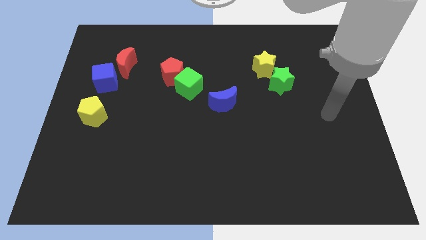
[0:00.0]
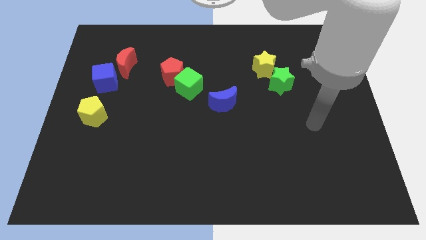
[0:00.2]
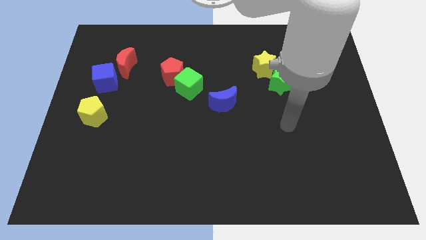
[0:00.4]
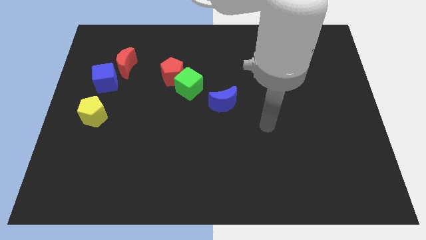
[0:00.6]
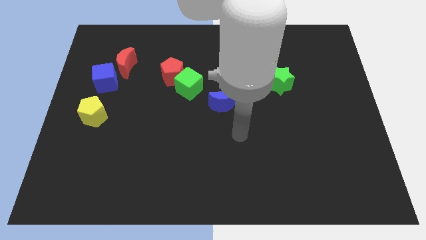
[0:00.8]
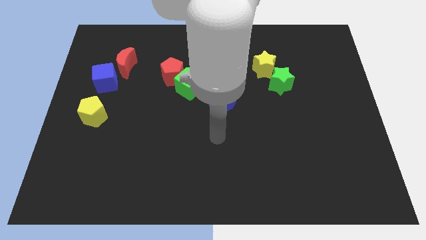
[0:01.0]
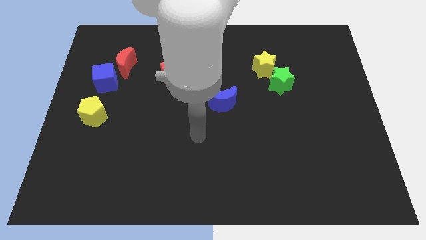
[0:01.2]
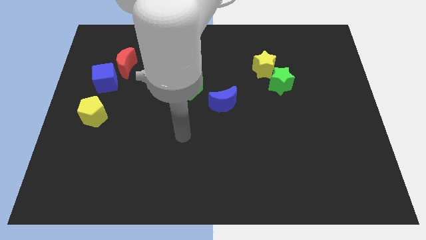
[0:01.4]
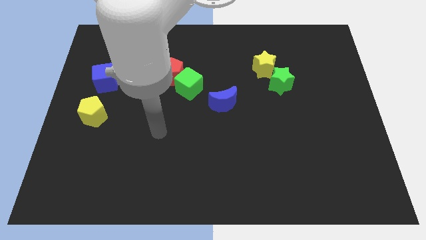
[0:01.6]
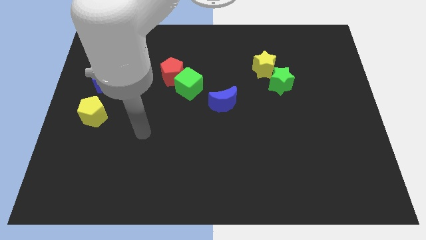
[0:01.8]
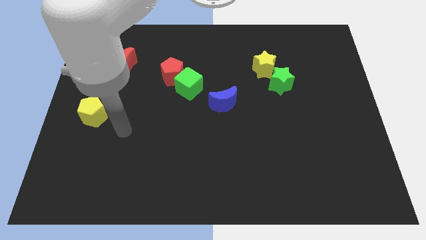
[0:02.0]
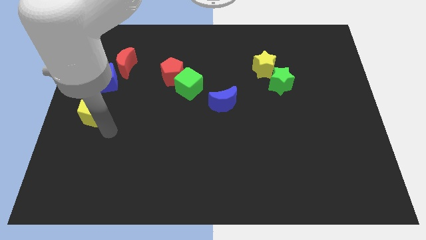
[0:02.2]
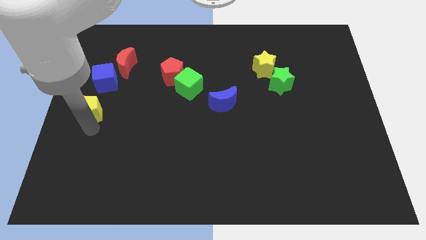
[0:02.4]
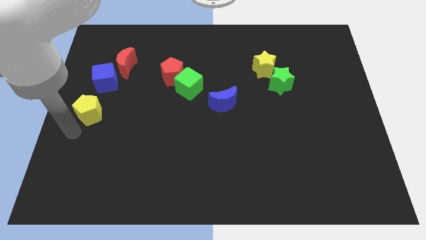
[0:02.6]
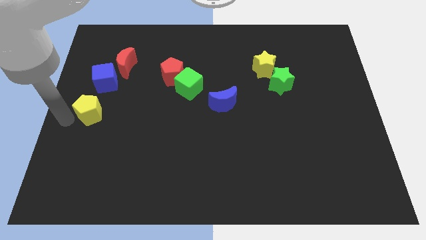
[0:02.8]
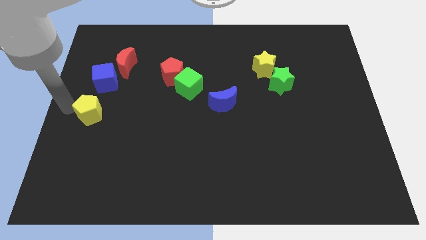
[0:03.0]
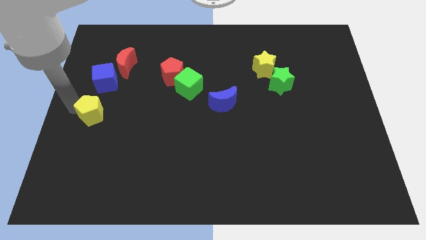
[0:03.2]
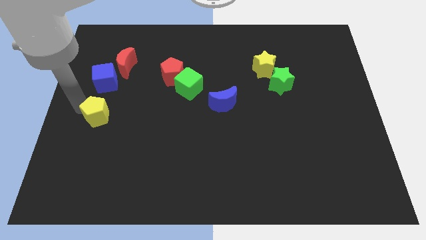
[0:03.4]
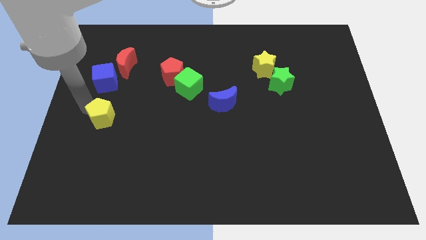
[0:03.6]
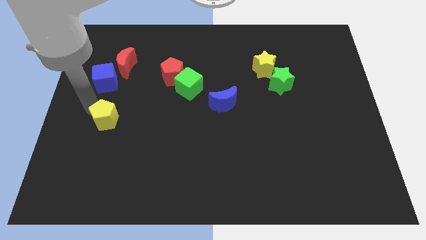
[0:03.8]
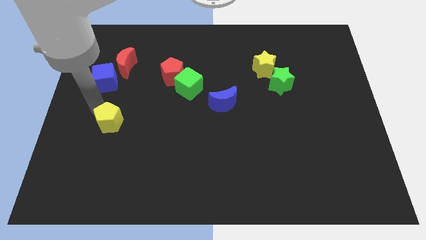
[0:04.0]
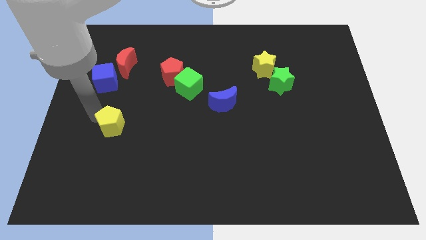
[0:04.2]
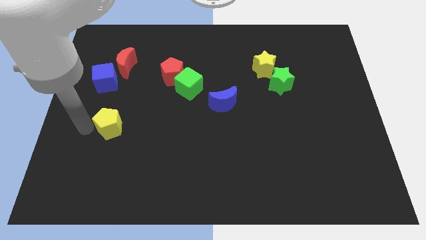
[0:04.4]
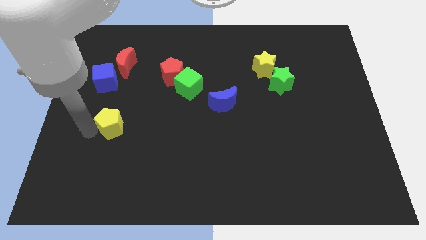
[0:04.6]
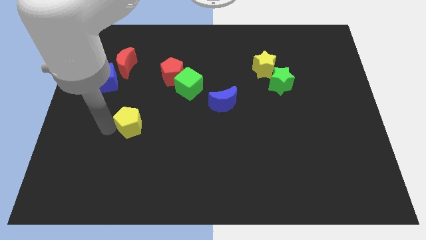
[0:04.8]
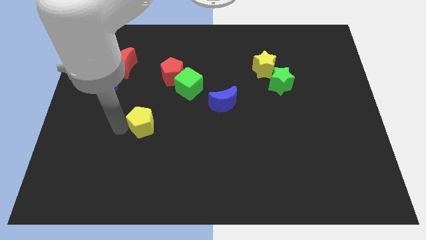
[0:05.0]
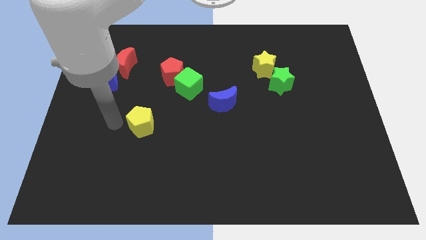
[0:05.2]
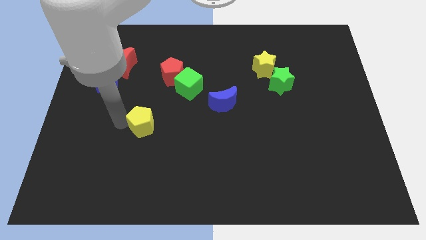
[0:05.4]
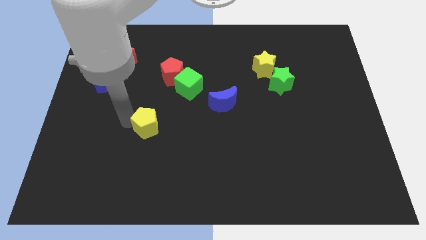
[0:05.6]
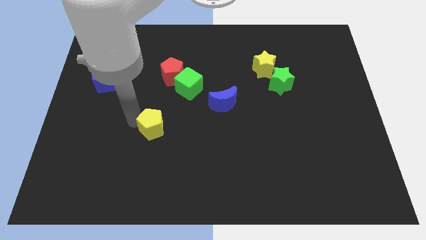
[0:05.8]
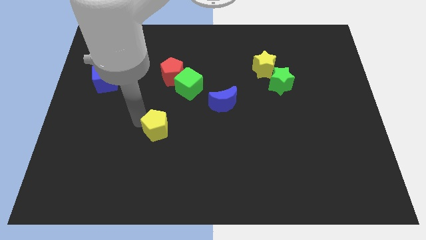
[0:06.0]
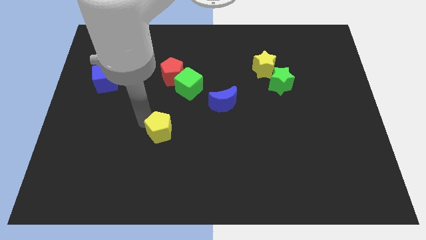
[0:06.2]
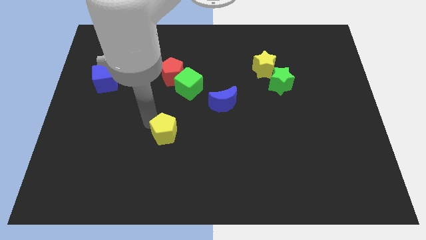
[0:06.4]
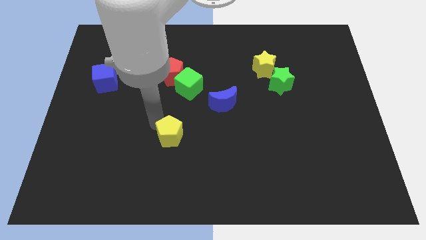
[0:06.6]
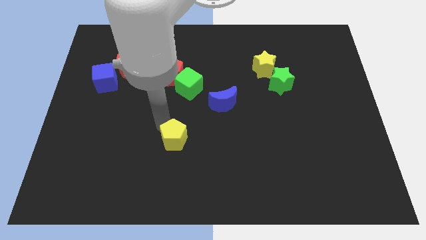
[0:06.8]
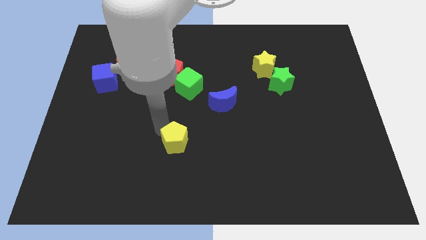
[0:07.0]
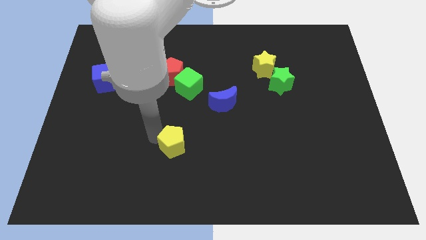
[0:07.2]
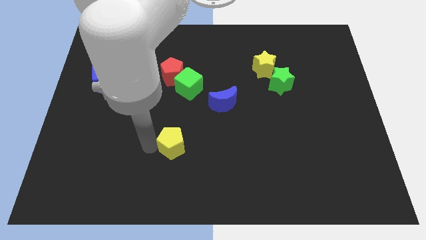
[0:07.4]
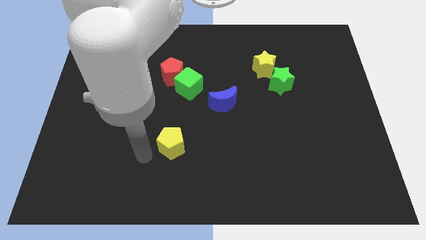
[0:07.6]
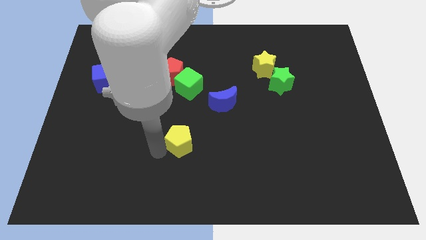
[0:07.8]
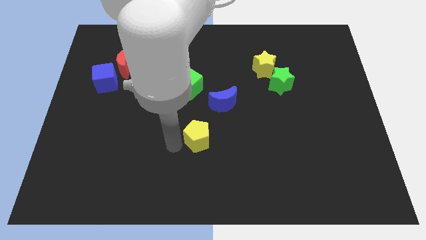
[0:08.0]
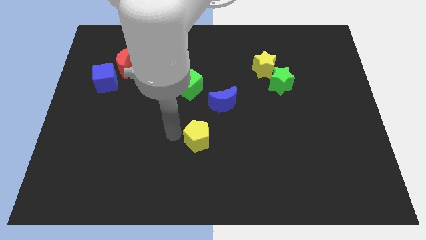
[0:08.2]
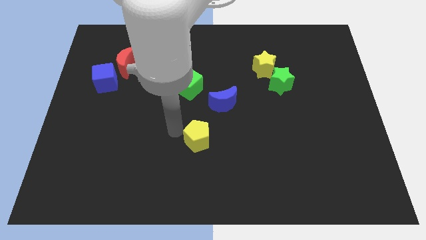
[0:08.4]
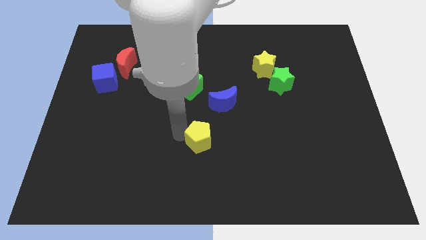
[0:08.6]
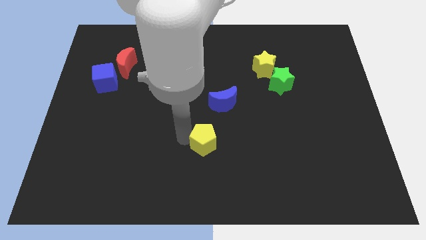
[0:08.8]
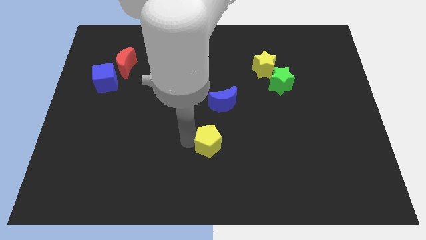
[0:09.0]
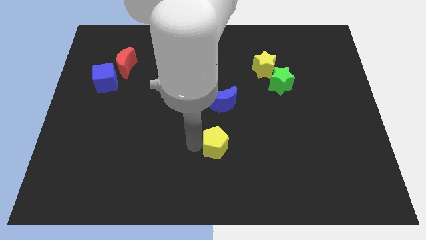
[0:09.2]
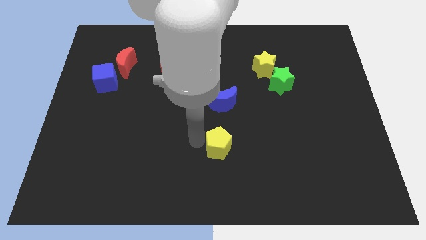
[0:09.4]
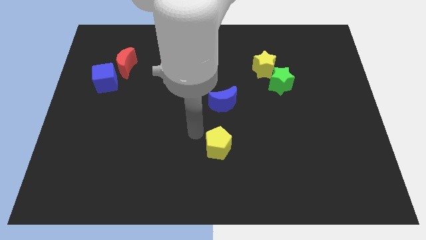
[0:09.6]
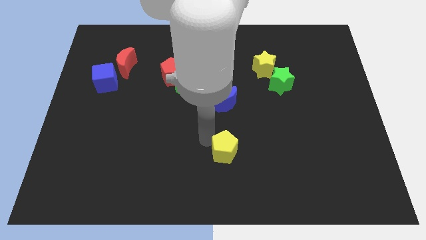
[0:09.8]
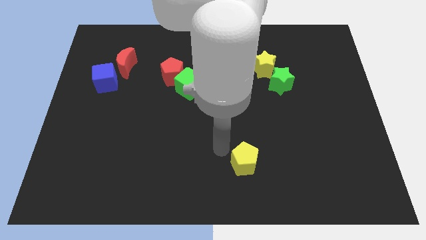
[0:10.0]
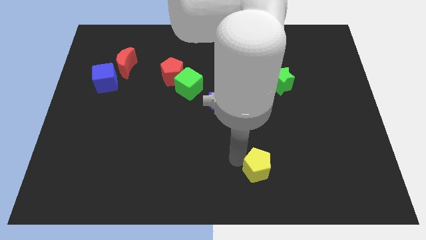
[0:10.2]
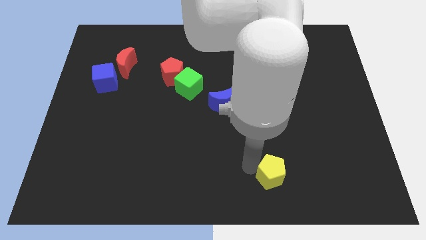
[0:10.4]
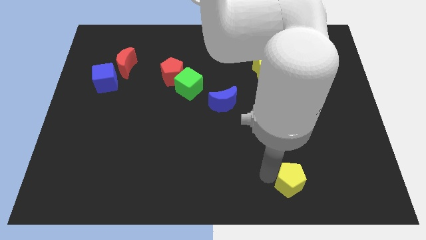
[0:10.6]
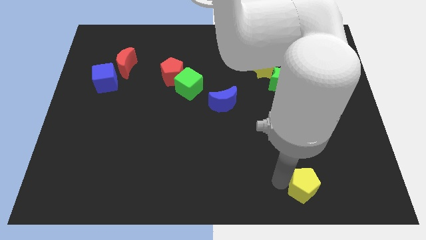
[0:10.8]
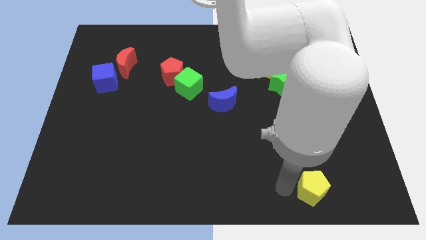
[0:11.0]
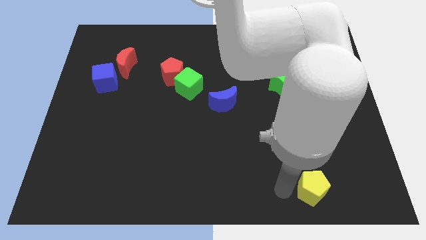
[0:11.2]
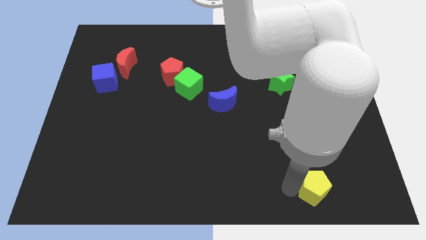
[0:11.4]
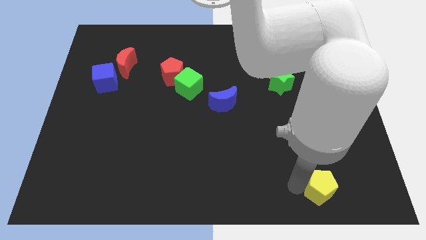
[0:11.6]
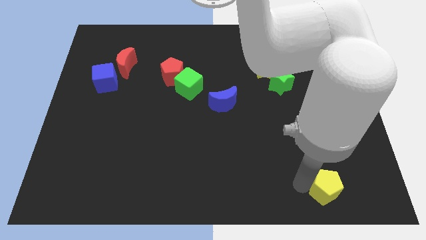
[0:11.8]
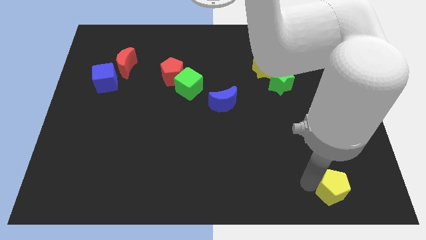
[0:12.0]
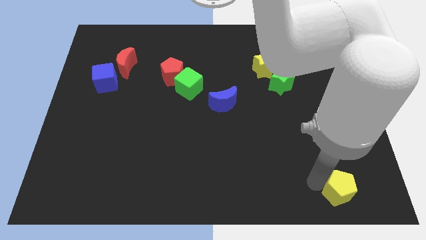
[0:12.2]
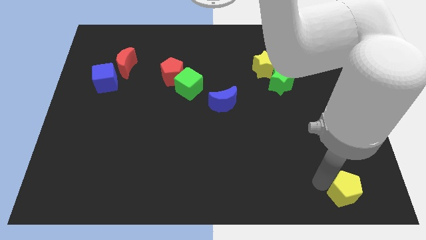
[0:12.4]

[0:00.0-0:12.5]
slide the yellow pentagon to the bottom right corner
